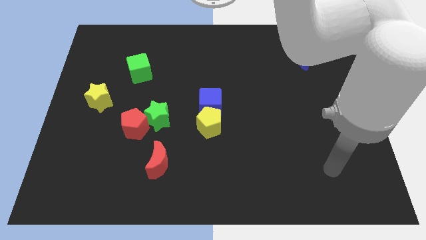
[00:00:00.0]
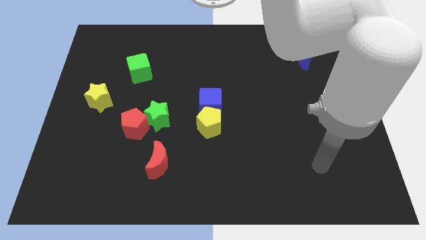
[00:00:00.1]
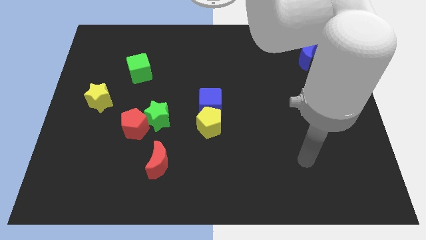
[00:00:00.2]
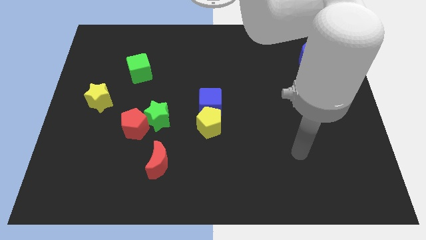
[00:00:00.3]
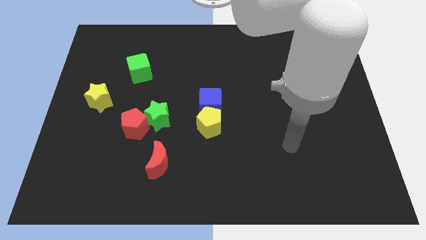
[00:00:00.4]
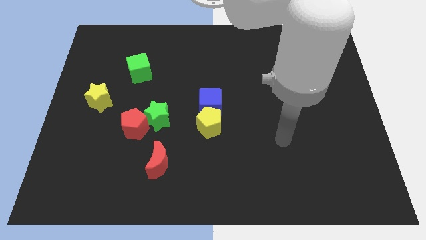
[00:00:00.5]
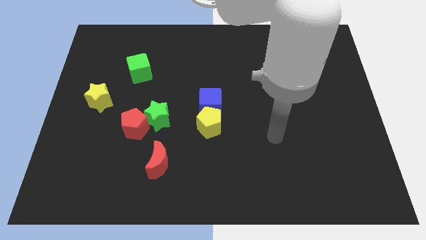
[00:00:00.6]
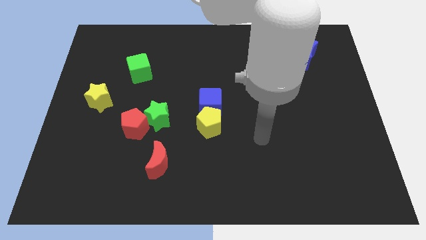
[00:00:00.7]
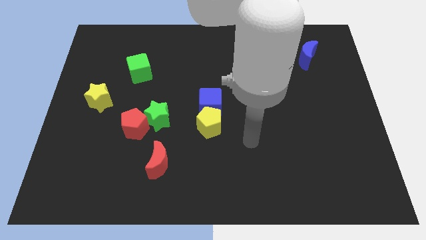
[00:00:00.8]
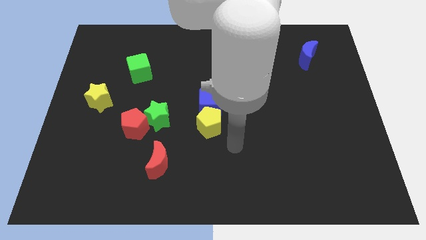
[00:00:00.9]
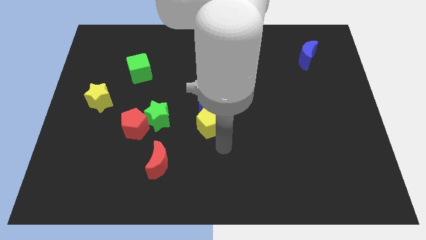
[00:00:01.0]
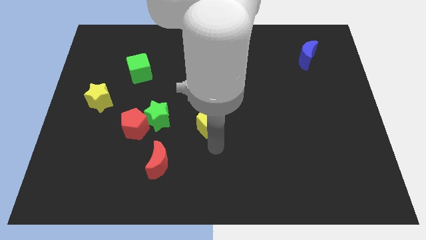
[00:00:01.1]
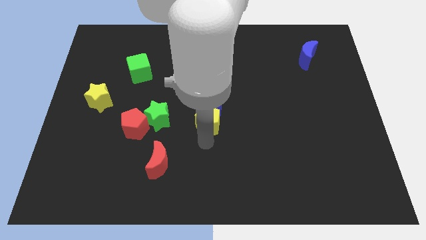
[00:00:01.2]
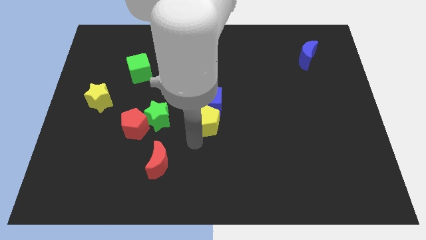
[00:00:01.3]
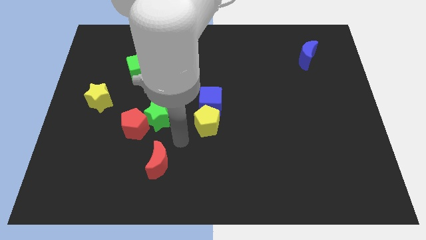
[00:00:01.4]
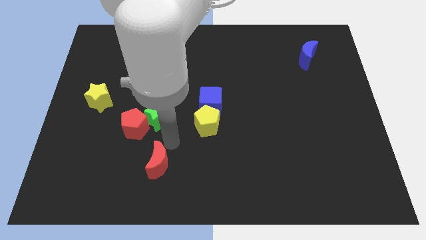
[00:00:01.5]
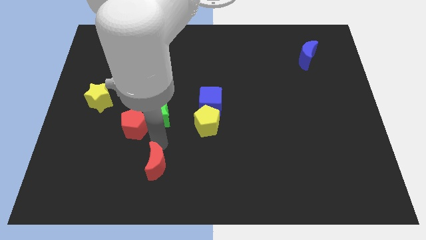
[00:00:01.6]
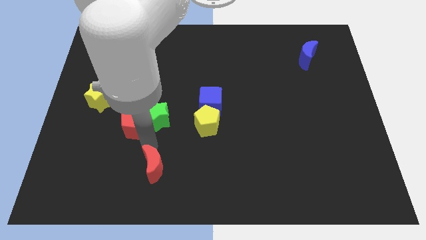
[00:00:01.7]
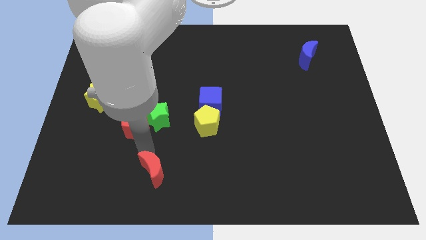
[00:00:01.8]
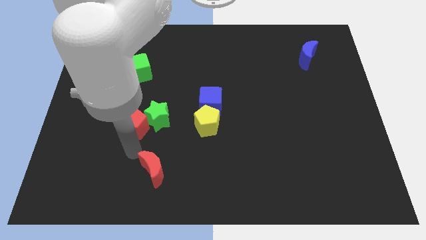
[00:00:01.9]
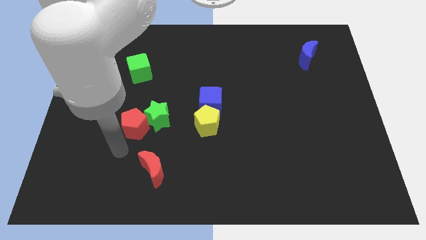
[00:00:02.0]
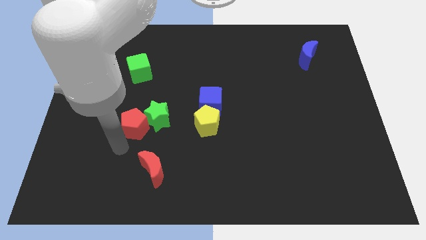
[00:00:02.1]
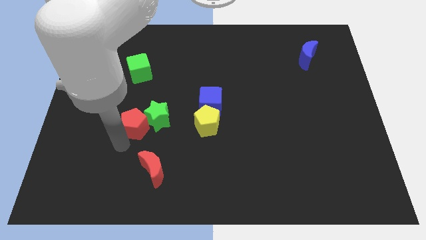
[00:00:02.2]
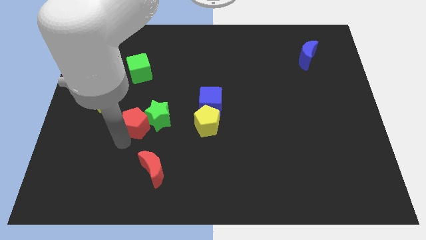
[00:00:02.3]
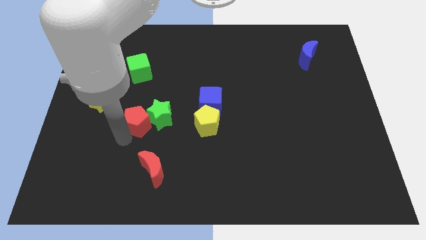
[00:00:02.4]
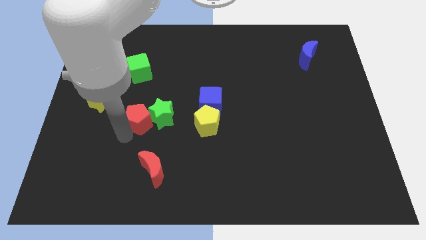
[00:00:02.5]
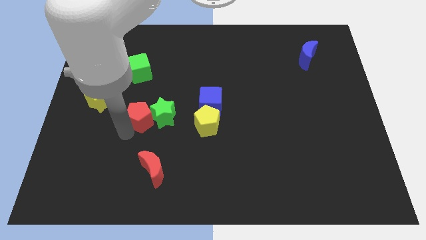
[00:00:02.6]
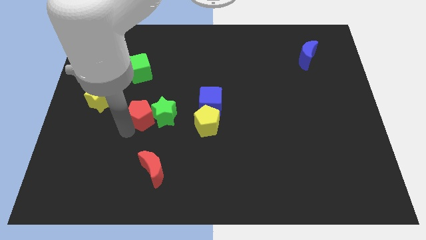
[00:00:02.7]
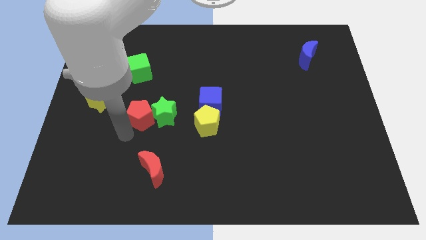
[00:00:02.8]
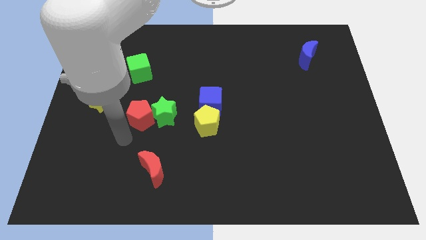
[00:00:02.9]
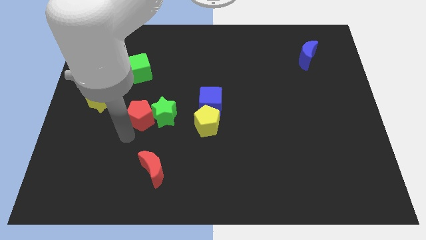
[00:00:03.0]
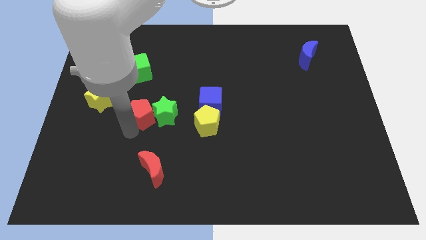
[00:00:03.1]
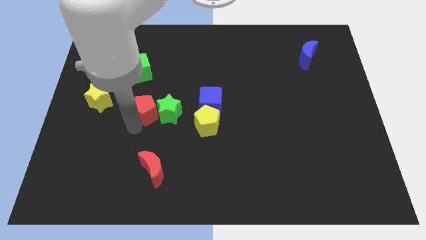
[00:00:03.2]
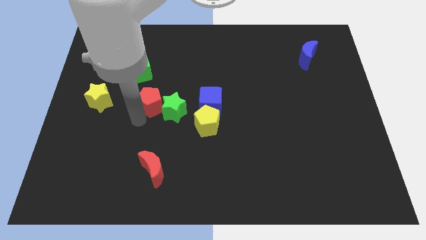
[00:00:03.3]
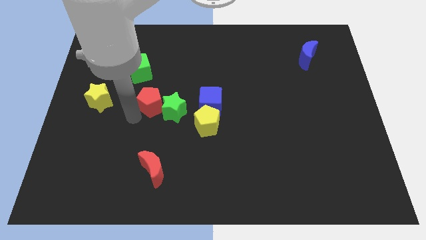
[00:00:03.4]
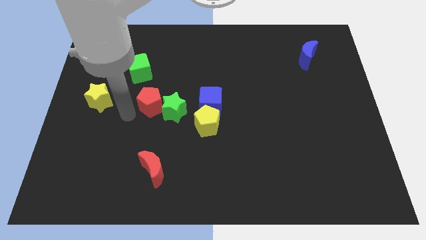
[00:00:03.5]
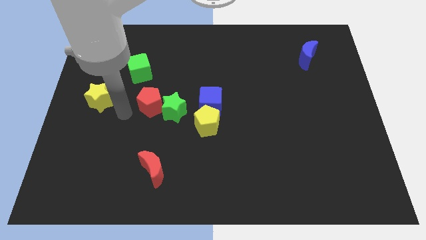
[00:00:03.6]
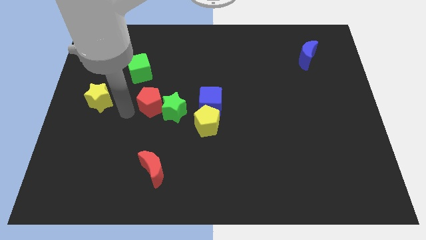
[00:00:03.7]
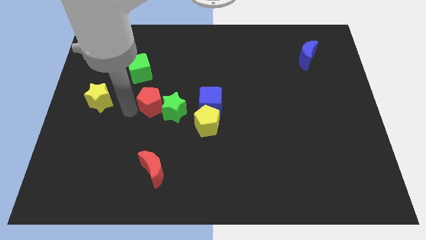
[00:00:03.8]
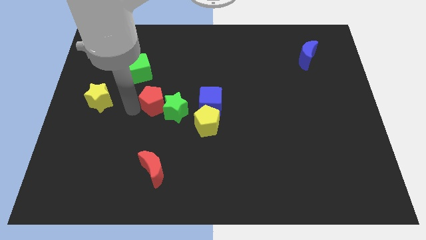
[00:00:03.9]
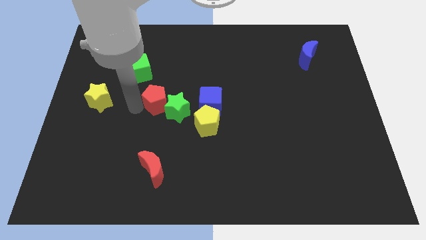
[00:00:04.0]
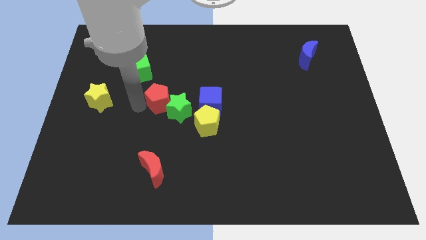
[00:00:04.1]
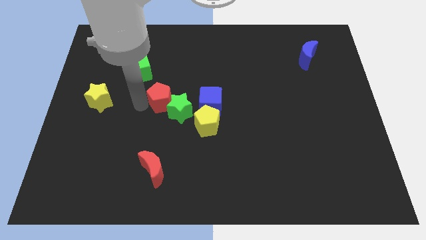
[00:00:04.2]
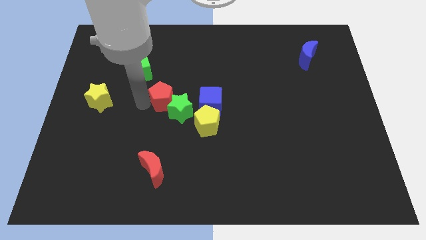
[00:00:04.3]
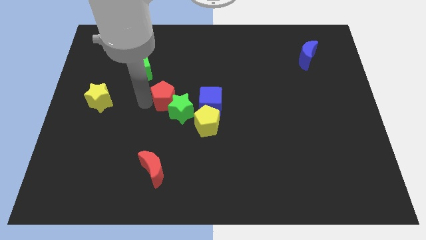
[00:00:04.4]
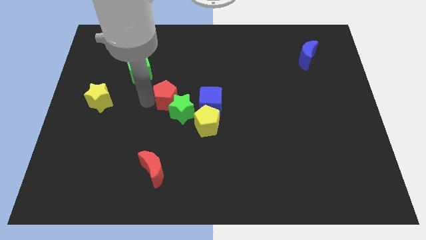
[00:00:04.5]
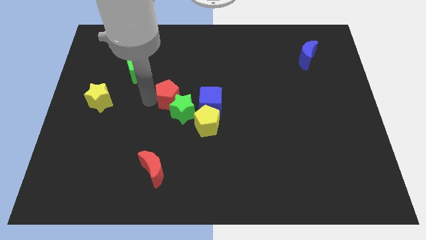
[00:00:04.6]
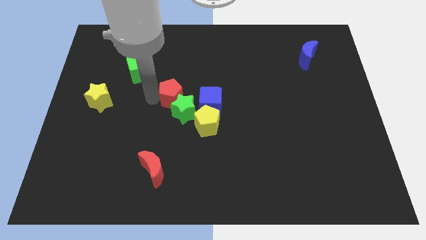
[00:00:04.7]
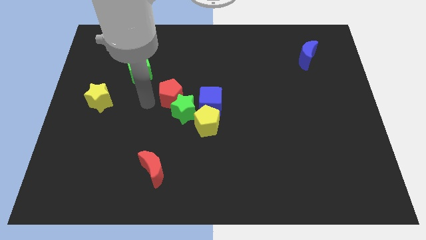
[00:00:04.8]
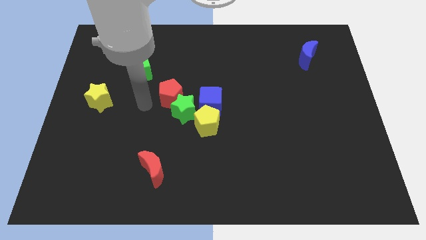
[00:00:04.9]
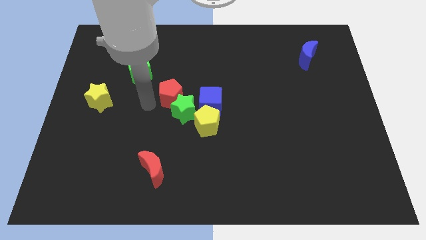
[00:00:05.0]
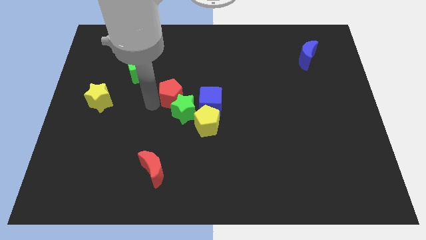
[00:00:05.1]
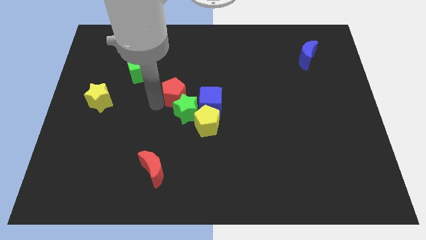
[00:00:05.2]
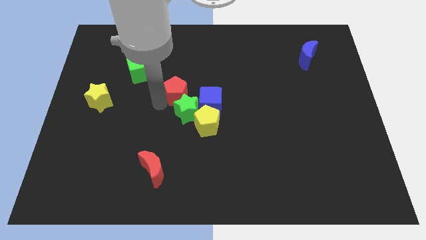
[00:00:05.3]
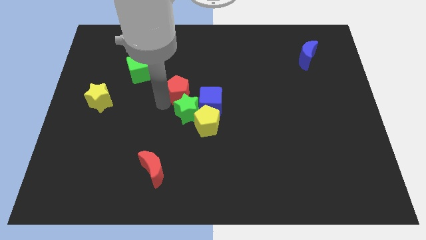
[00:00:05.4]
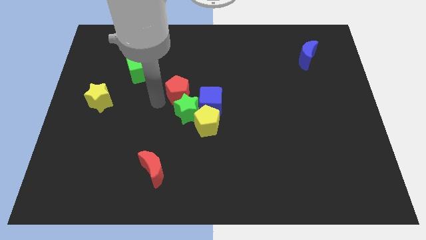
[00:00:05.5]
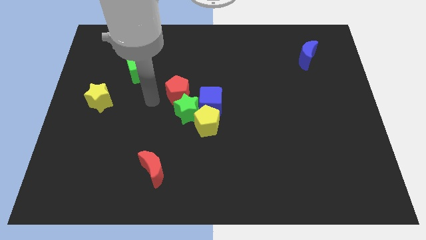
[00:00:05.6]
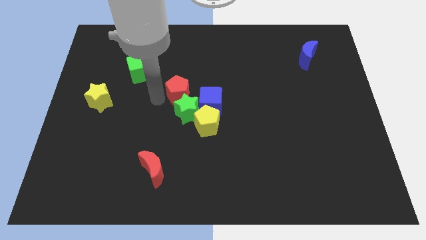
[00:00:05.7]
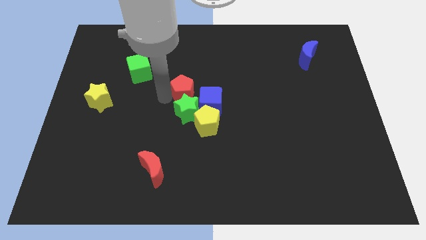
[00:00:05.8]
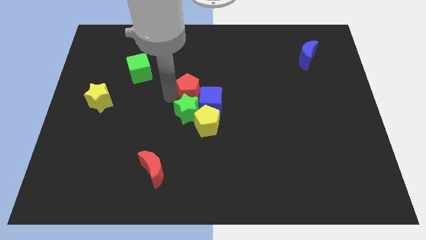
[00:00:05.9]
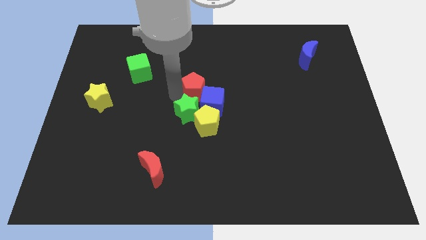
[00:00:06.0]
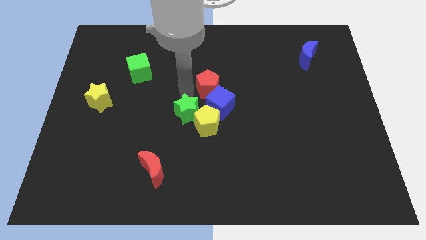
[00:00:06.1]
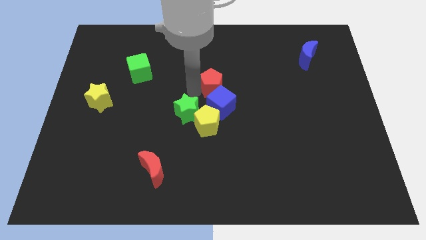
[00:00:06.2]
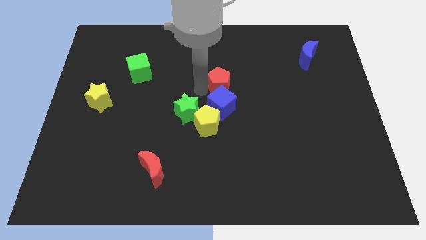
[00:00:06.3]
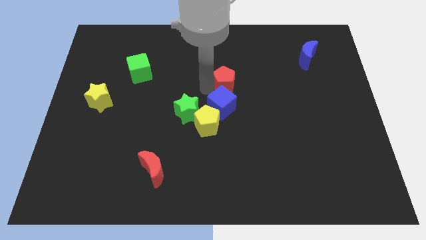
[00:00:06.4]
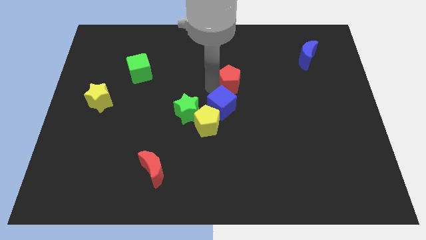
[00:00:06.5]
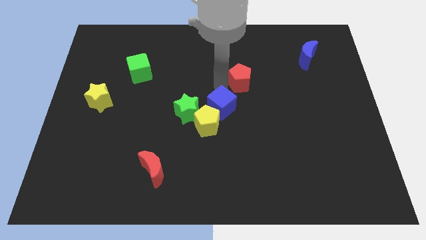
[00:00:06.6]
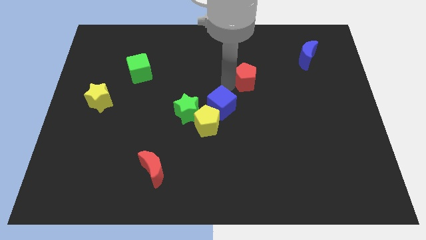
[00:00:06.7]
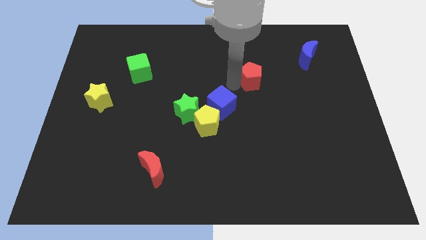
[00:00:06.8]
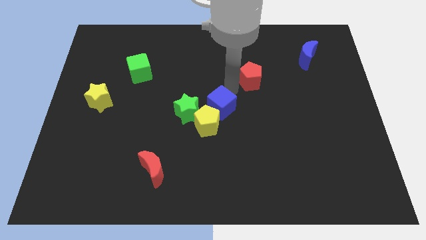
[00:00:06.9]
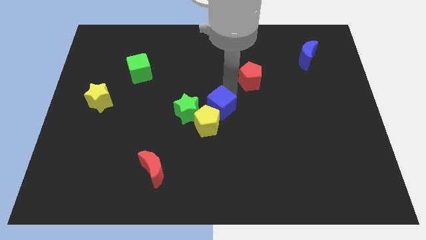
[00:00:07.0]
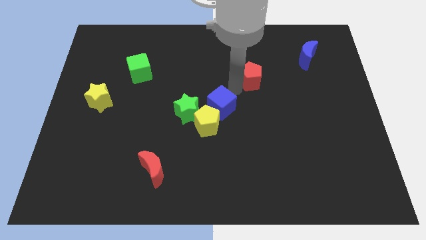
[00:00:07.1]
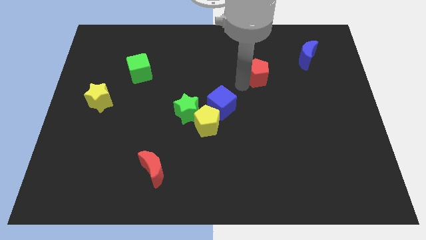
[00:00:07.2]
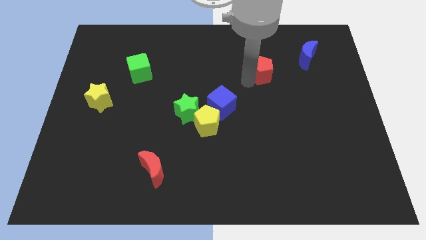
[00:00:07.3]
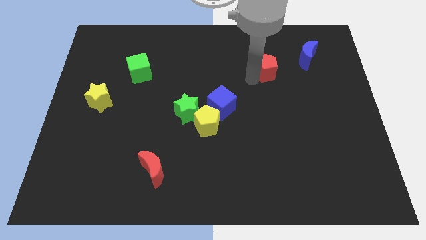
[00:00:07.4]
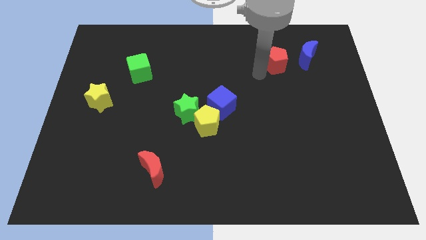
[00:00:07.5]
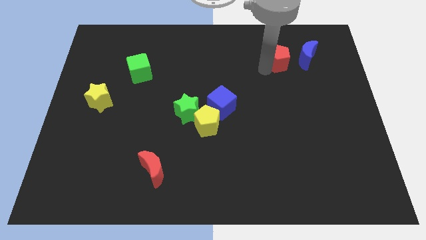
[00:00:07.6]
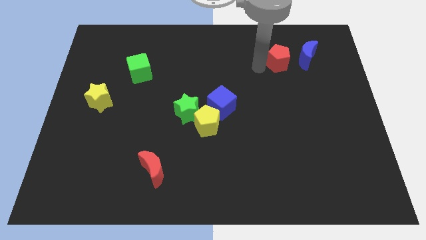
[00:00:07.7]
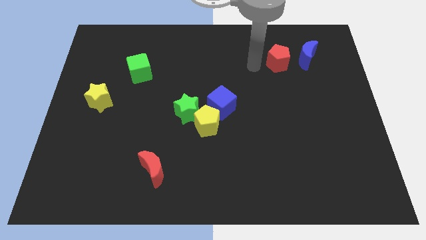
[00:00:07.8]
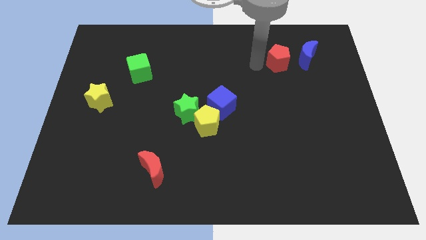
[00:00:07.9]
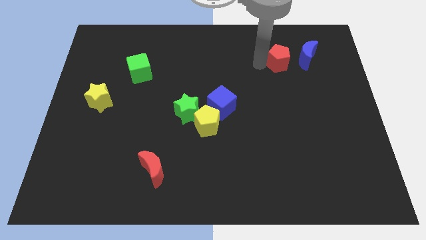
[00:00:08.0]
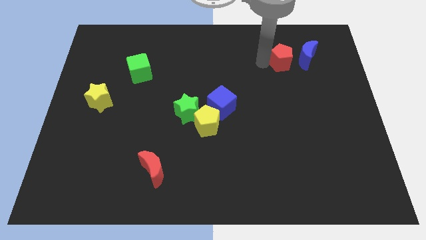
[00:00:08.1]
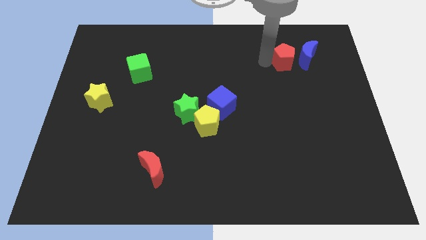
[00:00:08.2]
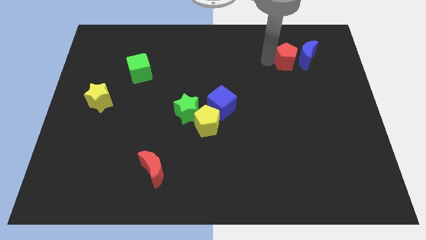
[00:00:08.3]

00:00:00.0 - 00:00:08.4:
push the red pentagon towards the blue moon
